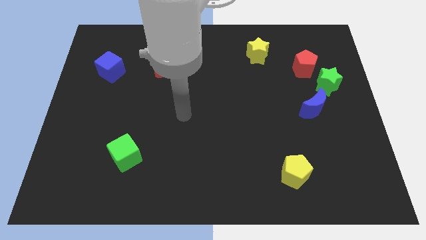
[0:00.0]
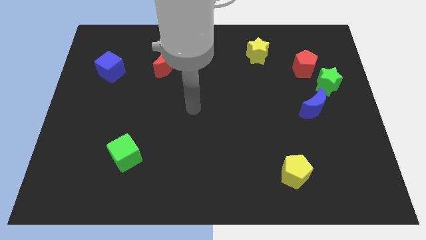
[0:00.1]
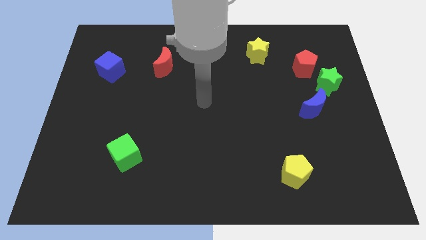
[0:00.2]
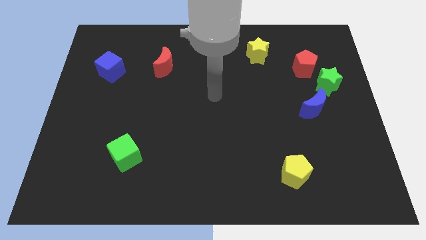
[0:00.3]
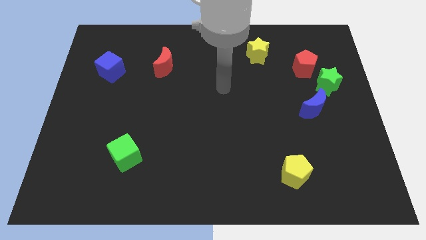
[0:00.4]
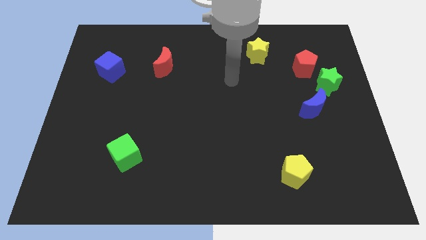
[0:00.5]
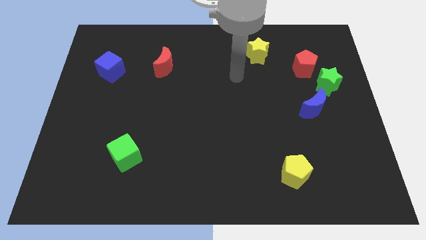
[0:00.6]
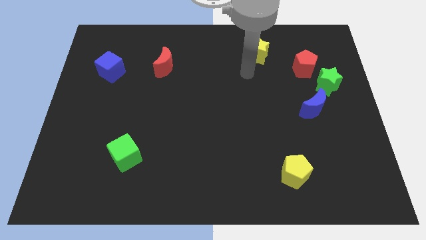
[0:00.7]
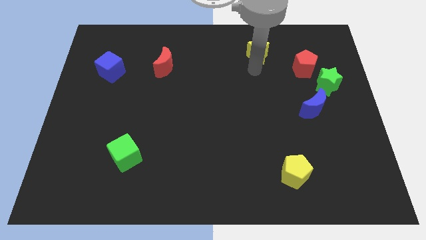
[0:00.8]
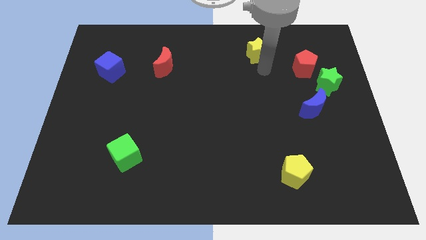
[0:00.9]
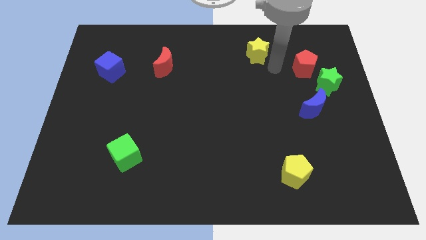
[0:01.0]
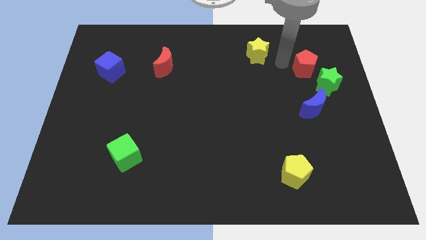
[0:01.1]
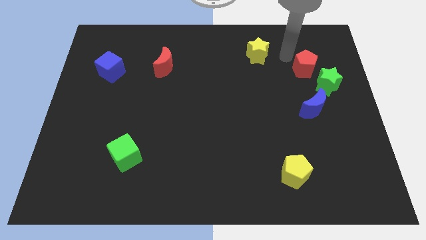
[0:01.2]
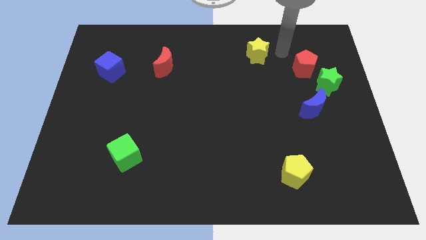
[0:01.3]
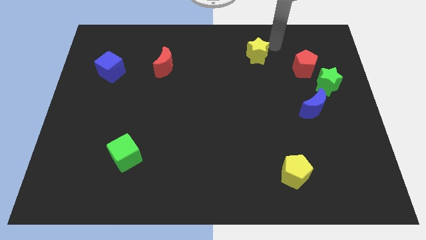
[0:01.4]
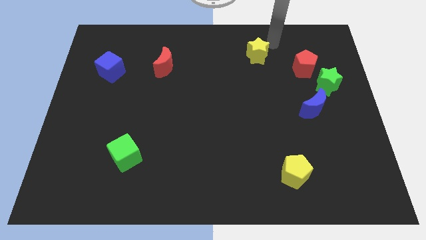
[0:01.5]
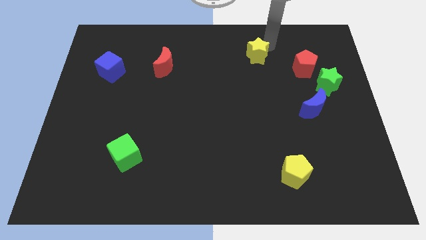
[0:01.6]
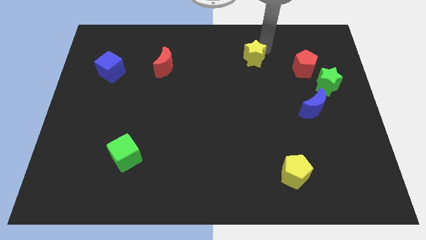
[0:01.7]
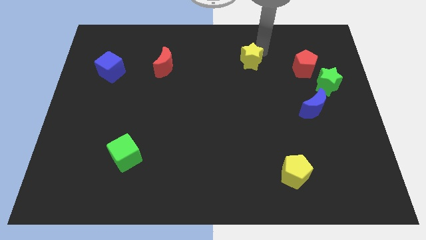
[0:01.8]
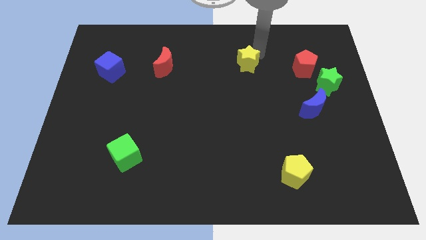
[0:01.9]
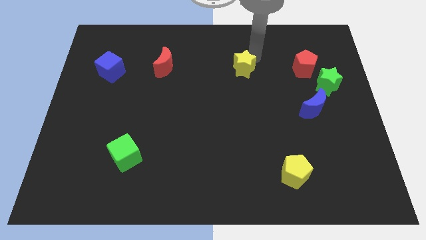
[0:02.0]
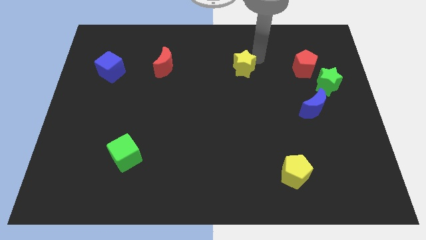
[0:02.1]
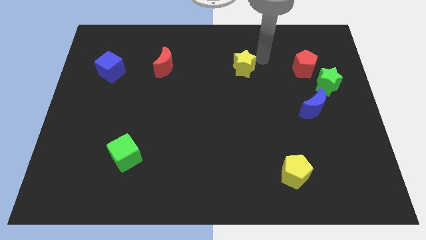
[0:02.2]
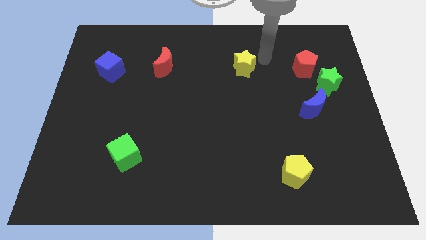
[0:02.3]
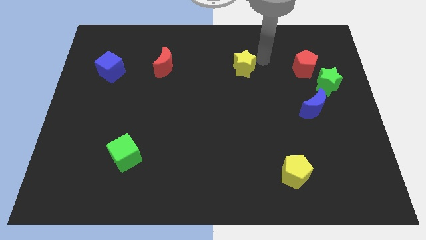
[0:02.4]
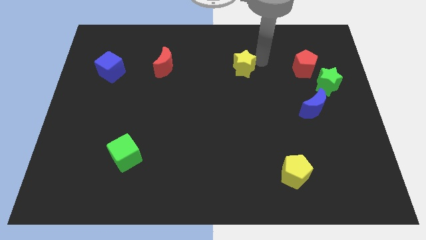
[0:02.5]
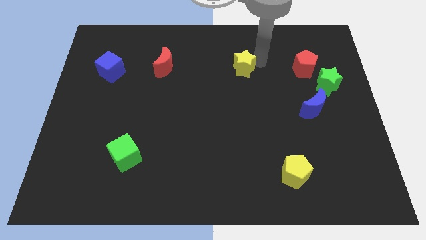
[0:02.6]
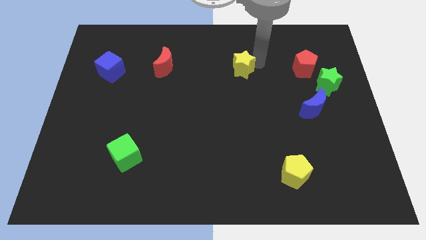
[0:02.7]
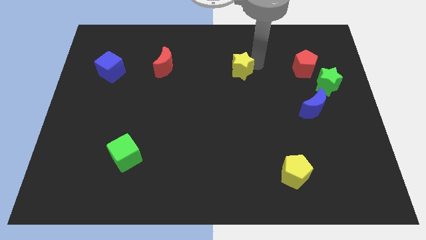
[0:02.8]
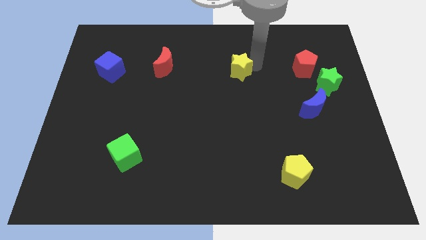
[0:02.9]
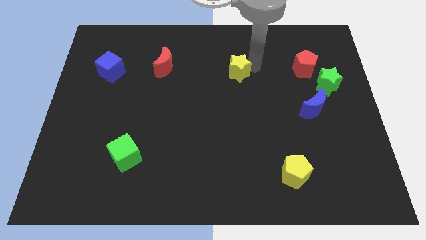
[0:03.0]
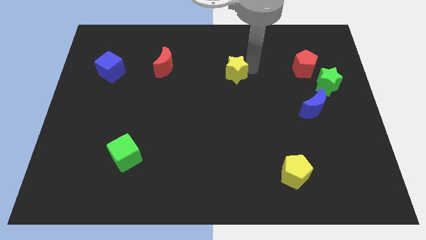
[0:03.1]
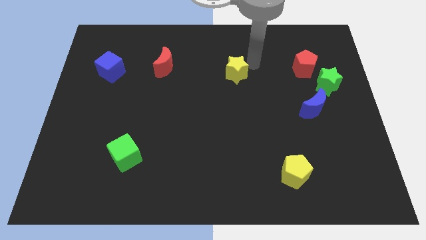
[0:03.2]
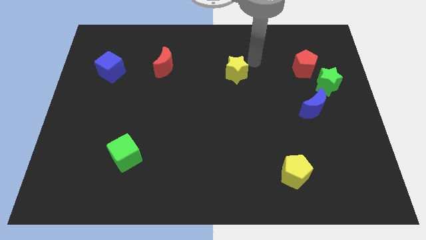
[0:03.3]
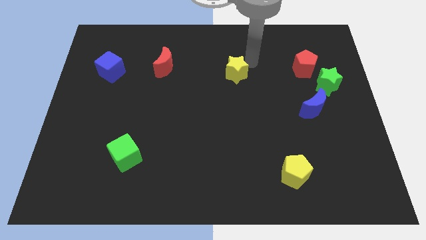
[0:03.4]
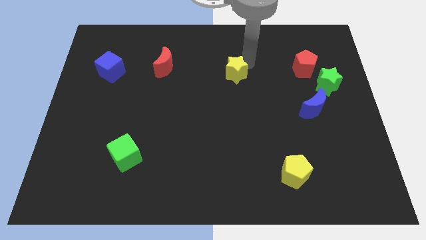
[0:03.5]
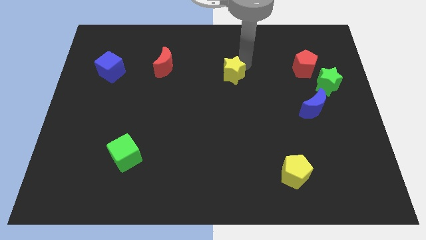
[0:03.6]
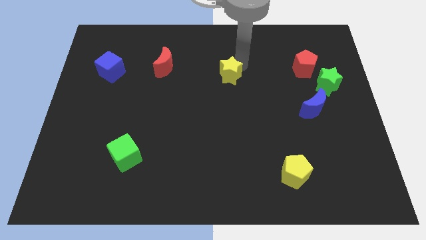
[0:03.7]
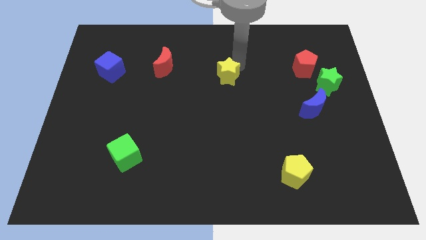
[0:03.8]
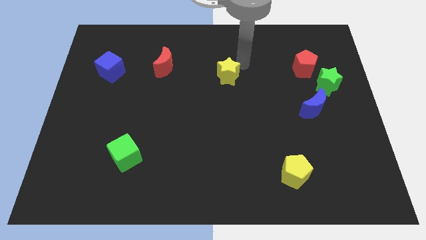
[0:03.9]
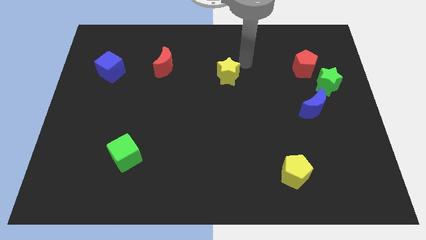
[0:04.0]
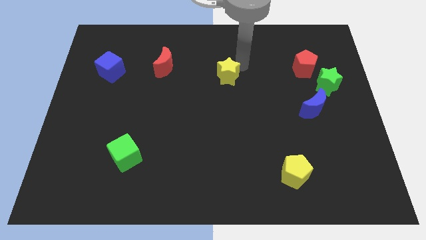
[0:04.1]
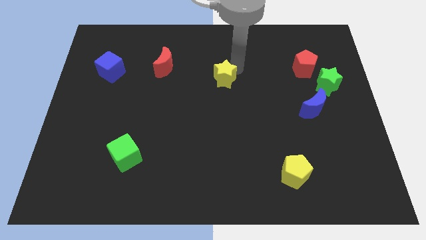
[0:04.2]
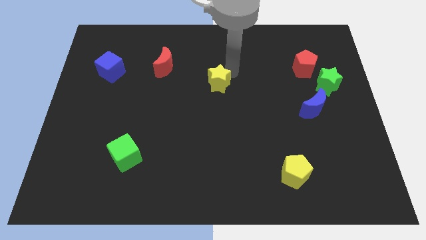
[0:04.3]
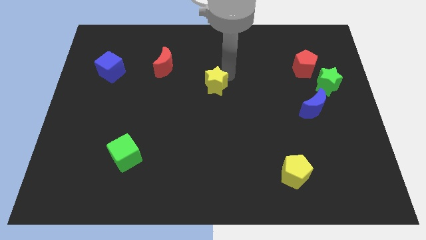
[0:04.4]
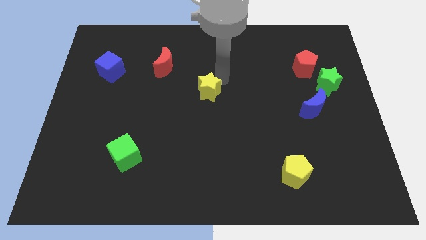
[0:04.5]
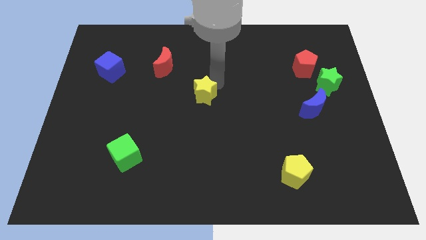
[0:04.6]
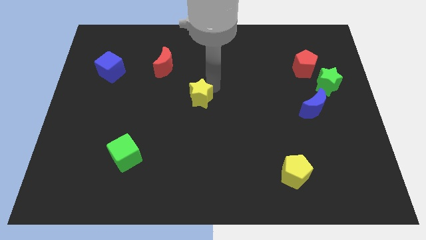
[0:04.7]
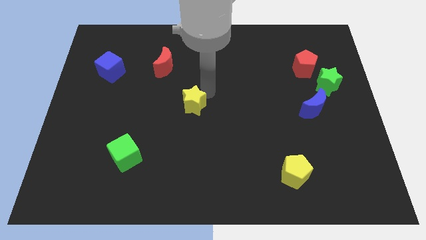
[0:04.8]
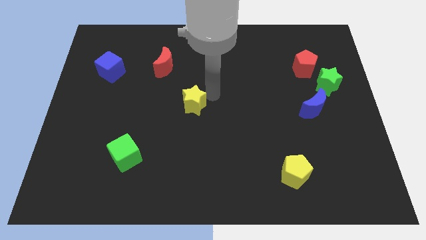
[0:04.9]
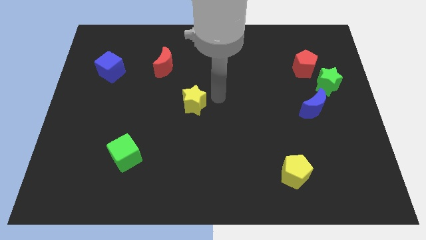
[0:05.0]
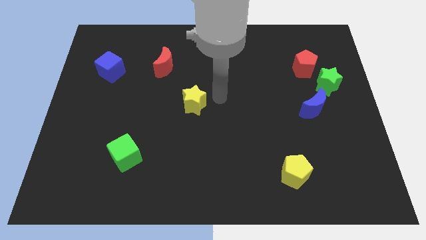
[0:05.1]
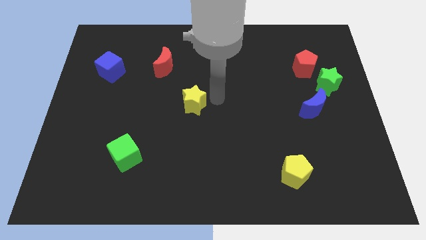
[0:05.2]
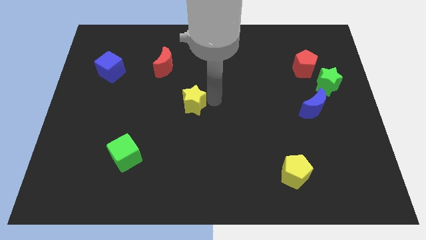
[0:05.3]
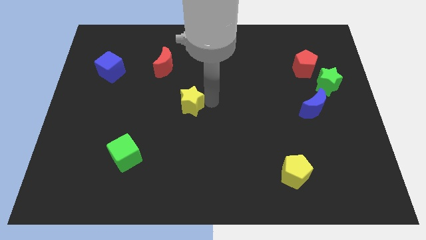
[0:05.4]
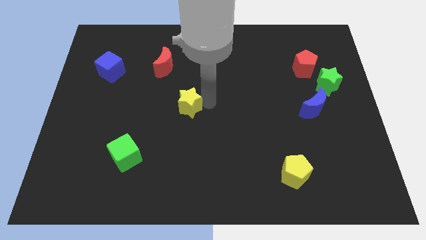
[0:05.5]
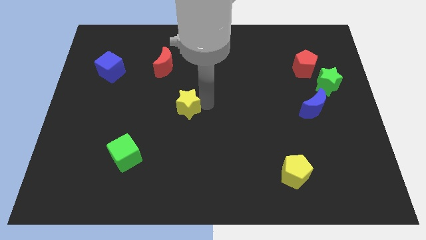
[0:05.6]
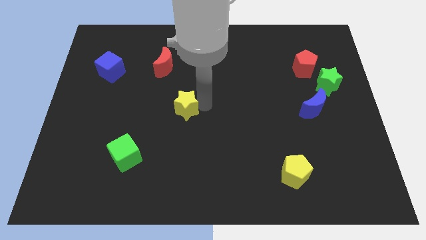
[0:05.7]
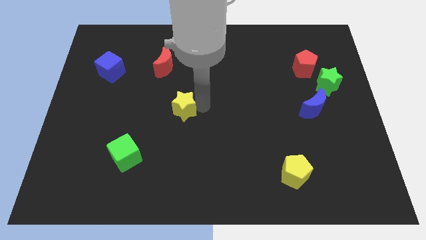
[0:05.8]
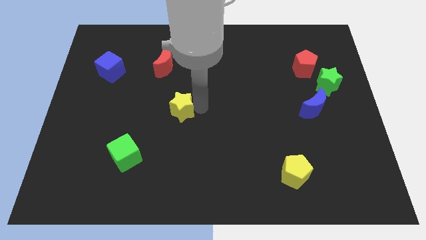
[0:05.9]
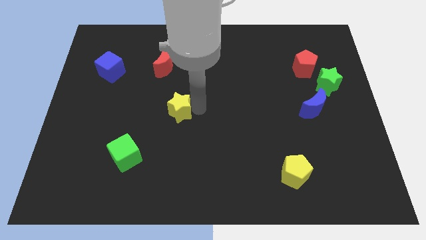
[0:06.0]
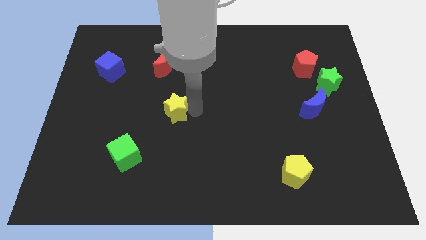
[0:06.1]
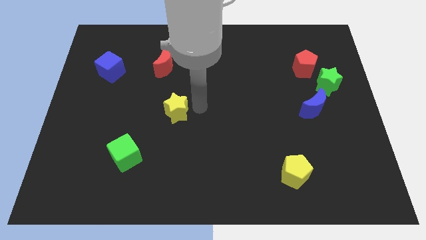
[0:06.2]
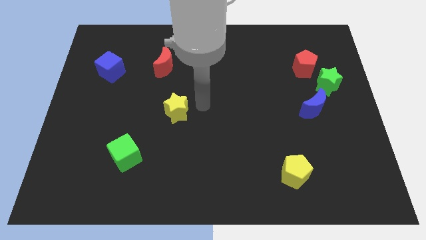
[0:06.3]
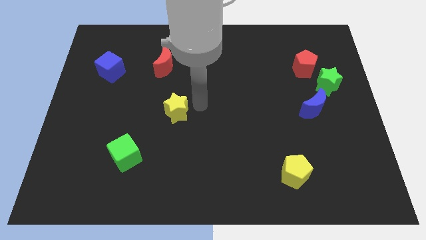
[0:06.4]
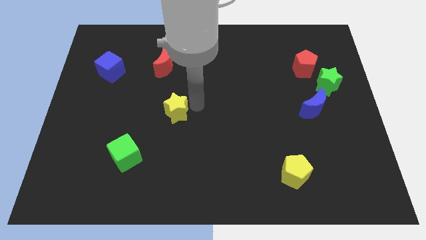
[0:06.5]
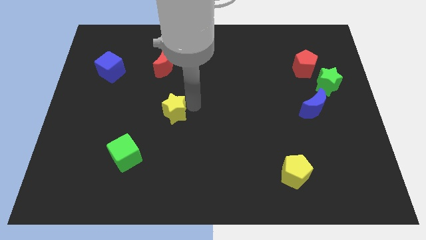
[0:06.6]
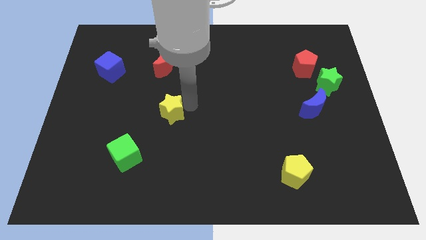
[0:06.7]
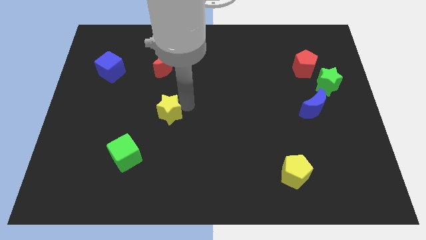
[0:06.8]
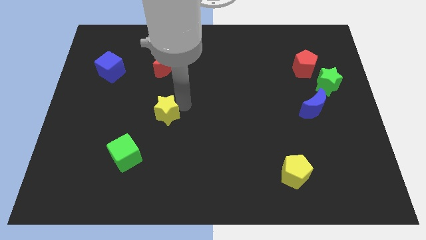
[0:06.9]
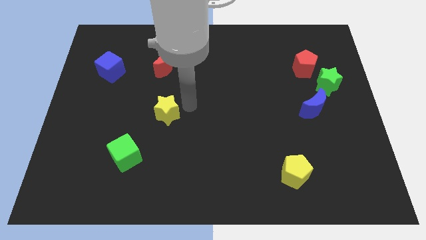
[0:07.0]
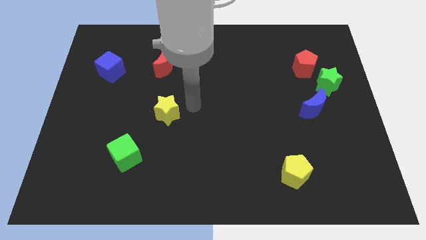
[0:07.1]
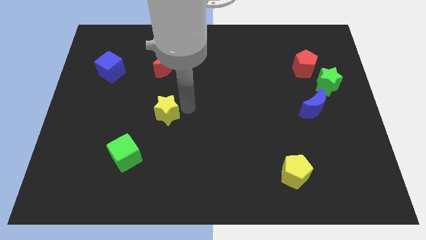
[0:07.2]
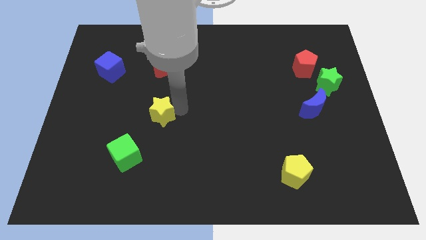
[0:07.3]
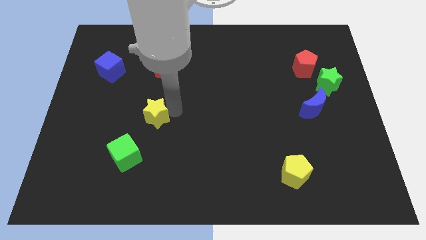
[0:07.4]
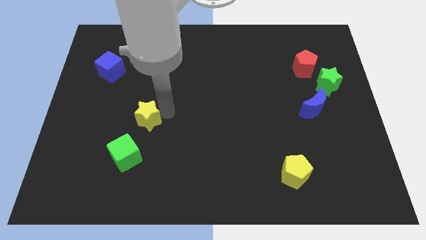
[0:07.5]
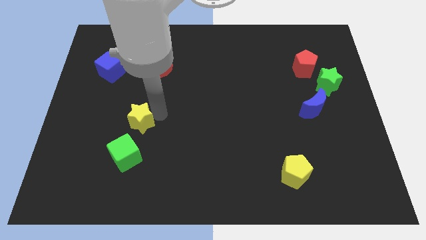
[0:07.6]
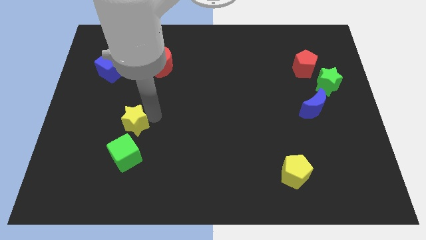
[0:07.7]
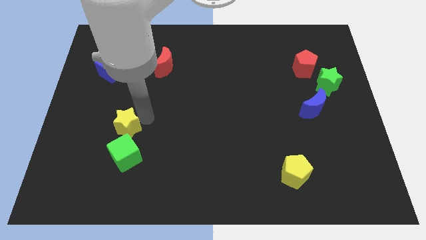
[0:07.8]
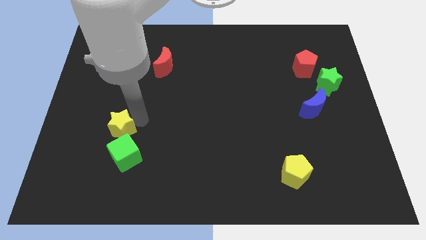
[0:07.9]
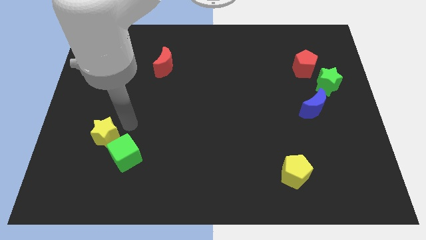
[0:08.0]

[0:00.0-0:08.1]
move the yellow star left of the green cube
